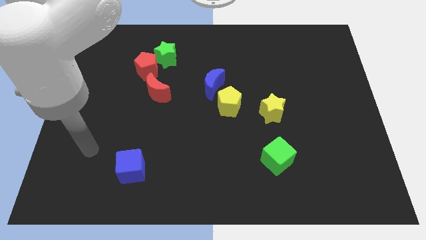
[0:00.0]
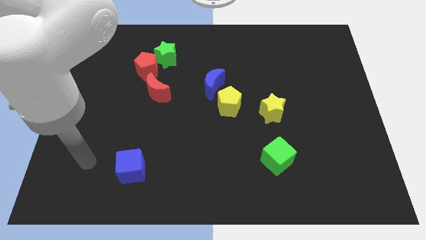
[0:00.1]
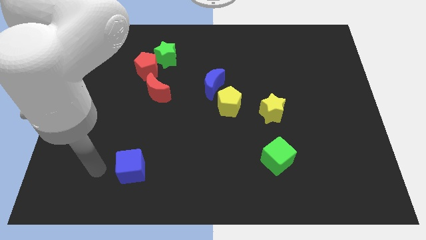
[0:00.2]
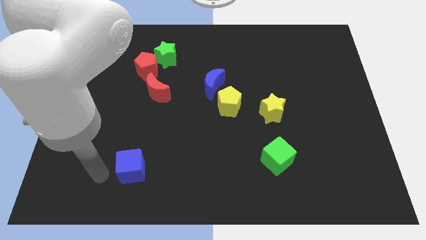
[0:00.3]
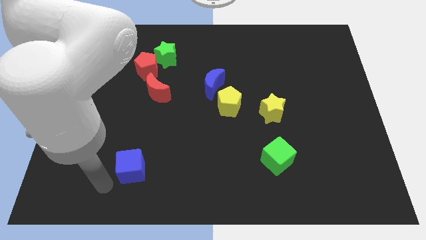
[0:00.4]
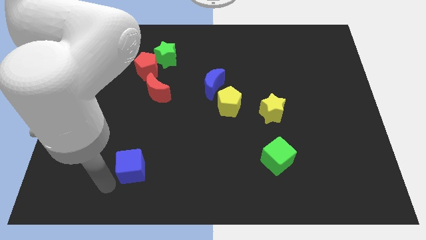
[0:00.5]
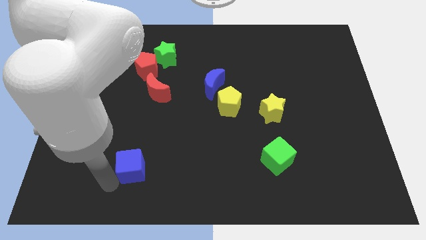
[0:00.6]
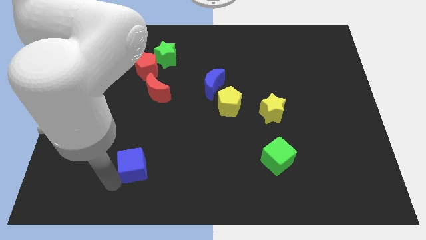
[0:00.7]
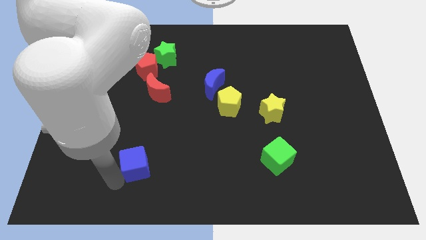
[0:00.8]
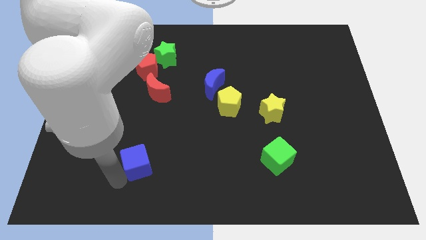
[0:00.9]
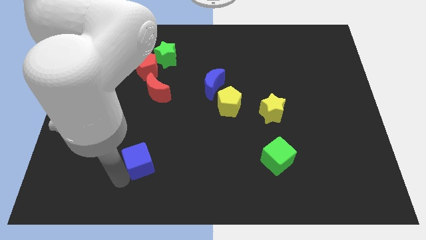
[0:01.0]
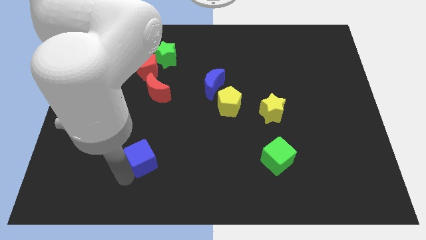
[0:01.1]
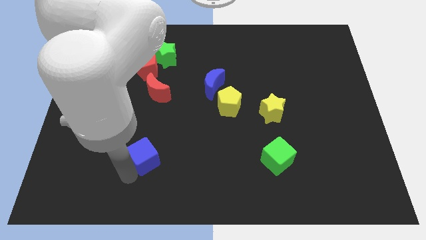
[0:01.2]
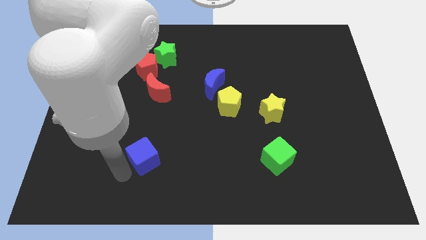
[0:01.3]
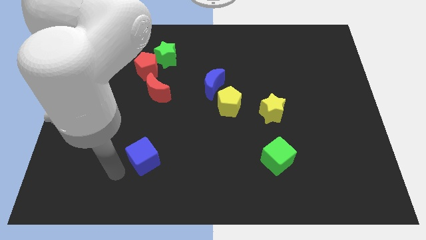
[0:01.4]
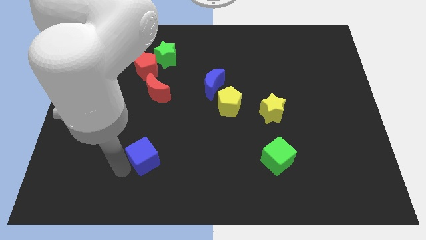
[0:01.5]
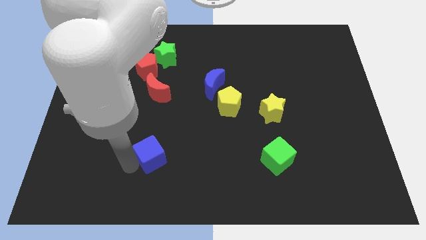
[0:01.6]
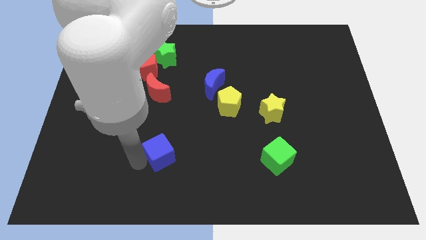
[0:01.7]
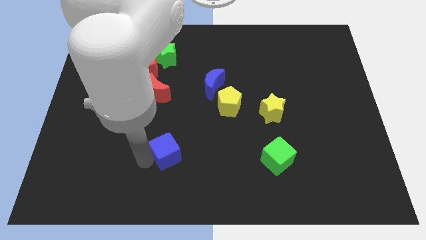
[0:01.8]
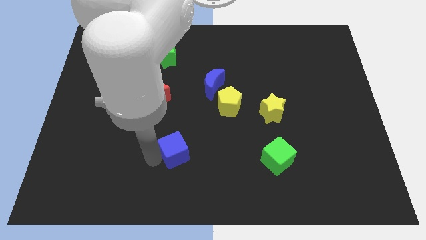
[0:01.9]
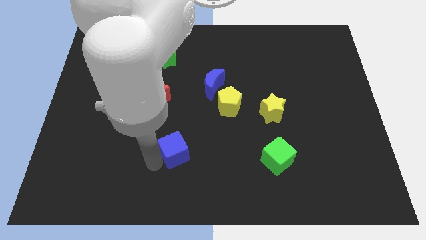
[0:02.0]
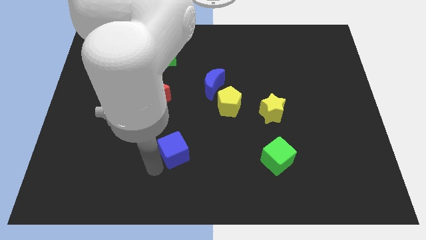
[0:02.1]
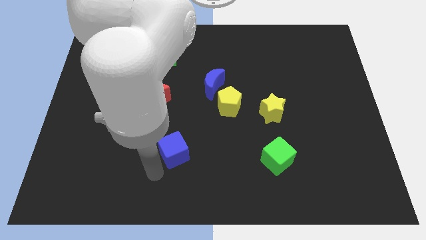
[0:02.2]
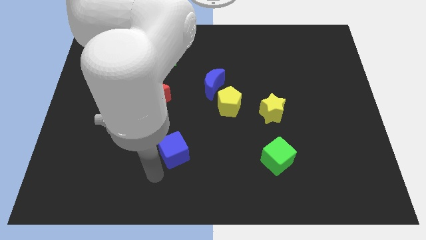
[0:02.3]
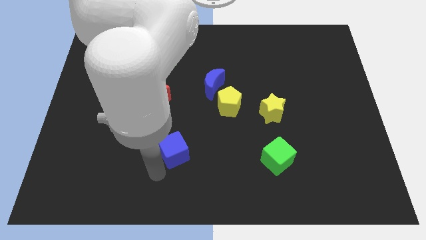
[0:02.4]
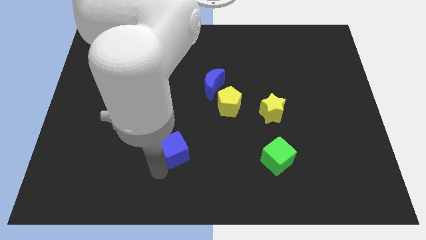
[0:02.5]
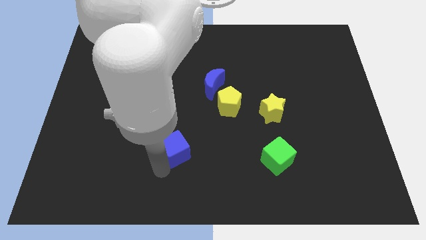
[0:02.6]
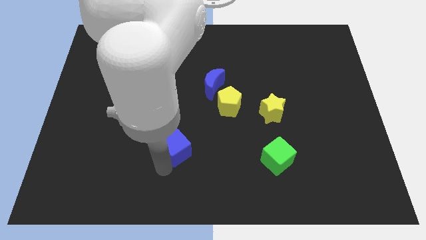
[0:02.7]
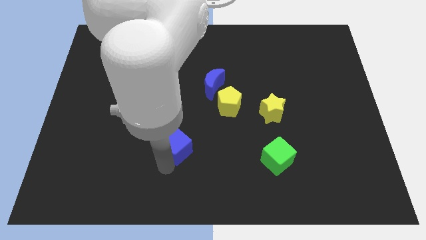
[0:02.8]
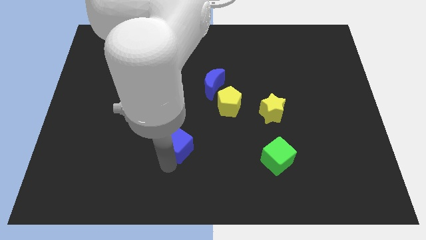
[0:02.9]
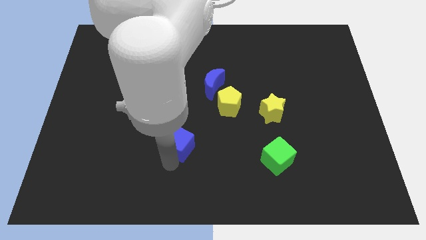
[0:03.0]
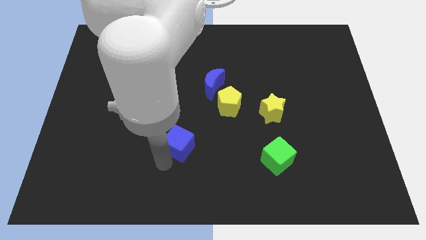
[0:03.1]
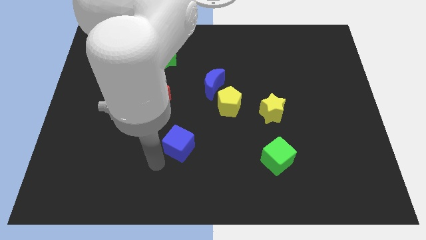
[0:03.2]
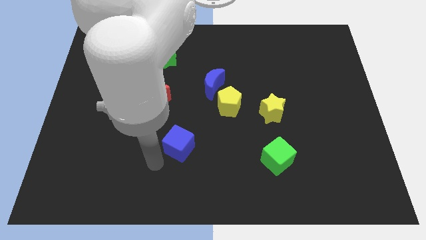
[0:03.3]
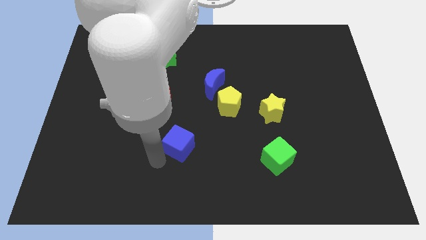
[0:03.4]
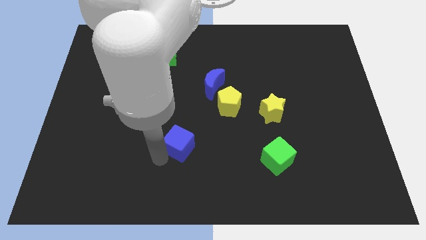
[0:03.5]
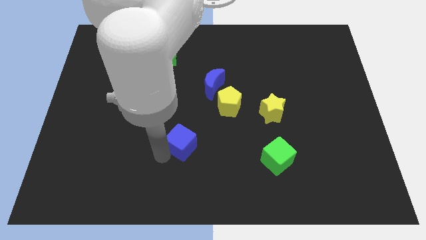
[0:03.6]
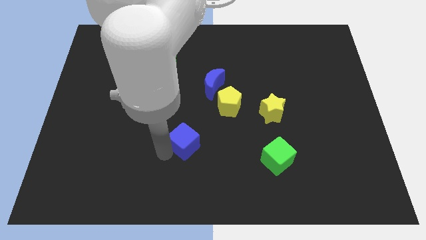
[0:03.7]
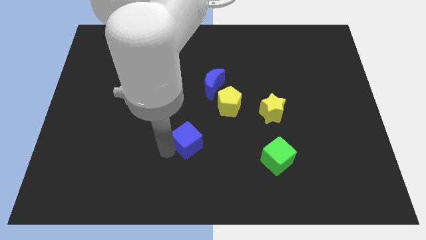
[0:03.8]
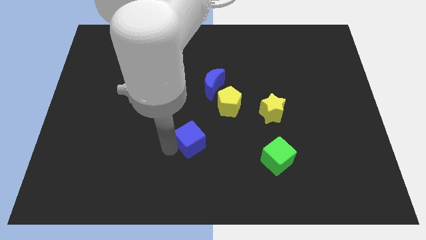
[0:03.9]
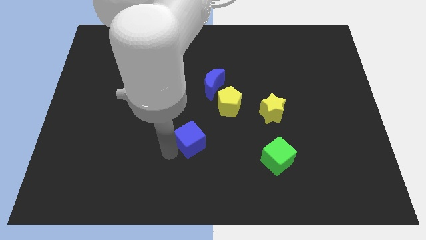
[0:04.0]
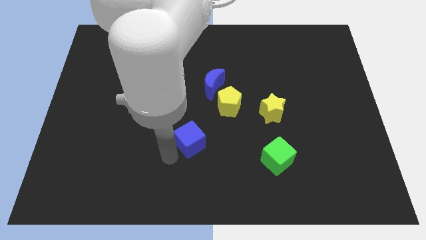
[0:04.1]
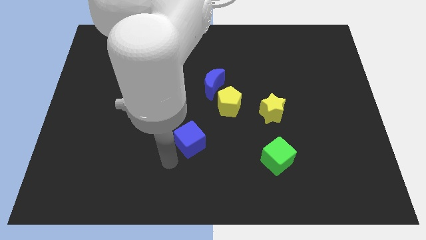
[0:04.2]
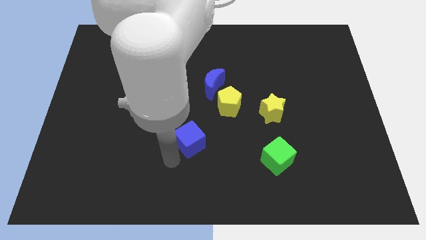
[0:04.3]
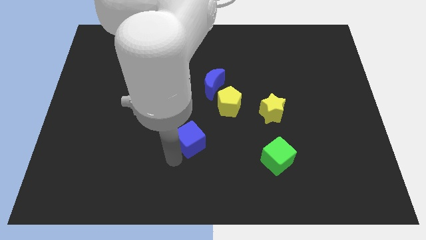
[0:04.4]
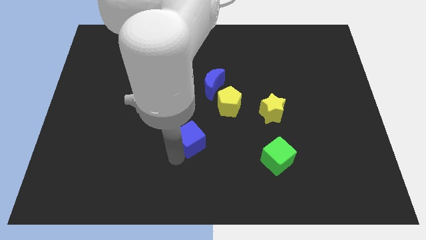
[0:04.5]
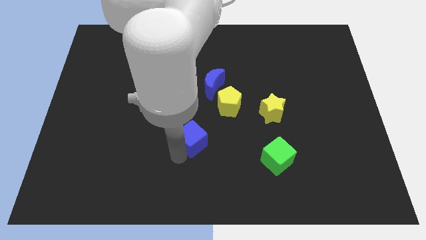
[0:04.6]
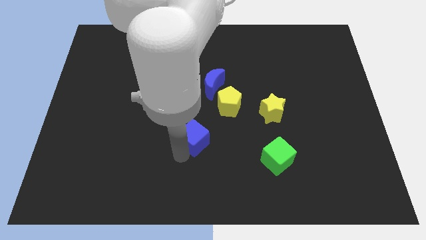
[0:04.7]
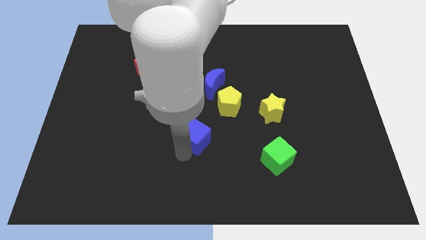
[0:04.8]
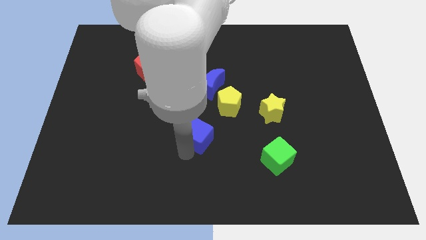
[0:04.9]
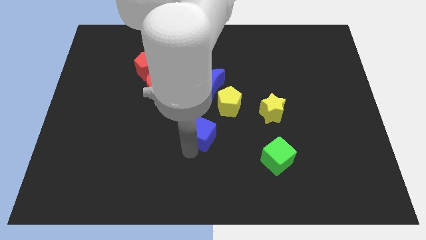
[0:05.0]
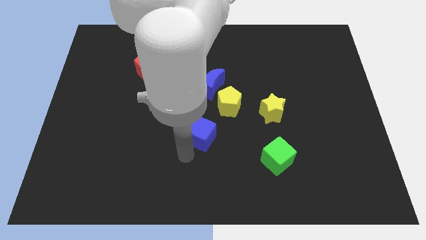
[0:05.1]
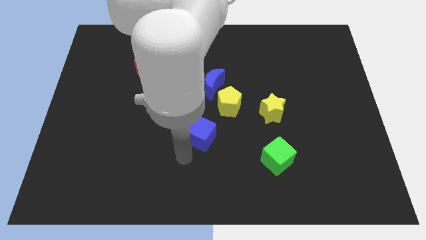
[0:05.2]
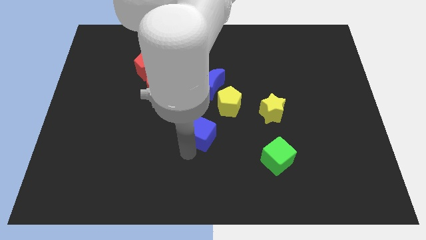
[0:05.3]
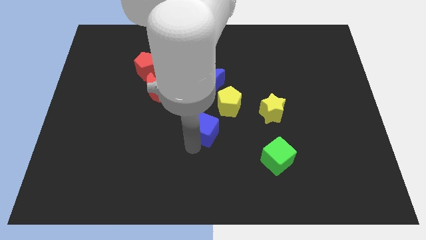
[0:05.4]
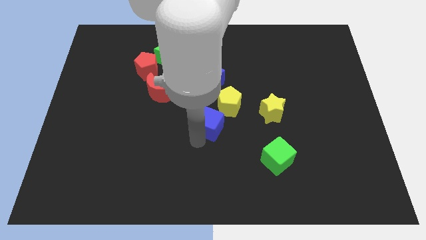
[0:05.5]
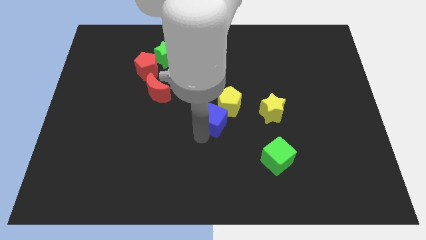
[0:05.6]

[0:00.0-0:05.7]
move the blue cube close to the yellow pentagon

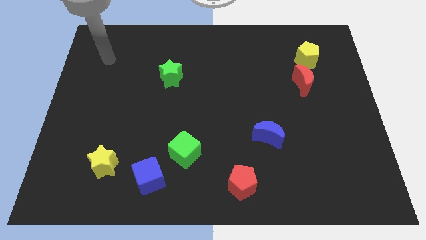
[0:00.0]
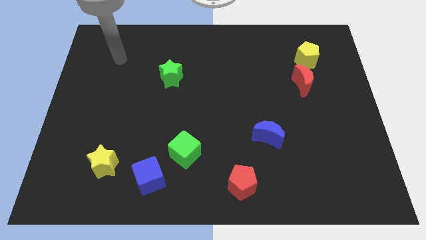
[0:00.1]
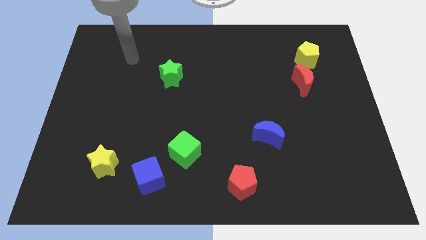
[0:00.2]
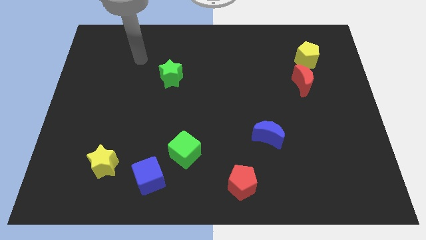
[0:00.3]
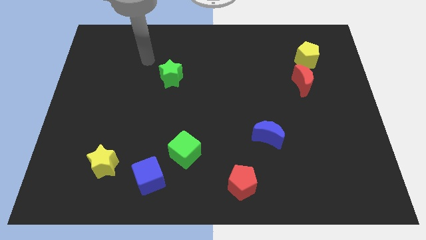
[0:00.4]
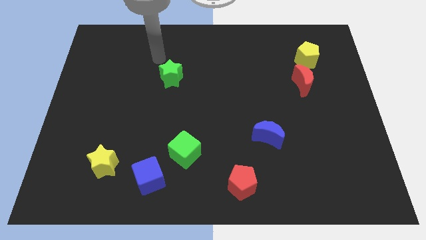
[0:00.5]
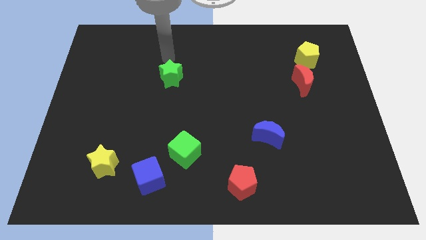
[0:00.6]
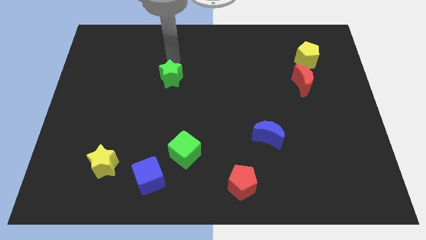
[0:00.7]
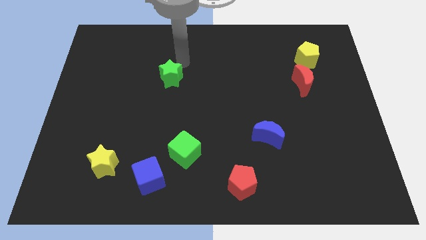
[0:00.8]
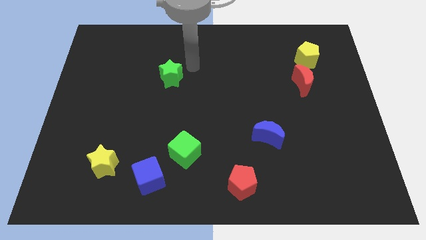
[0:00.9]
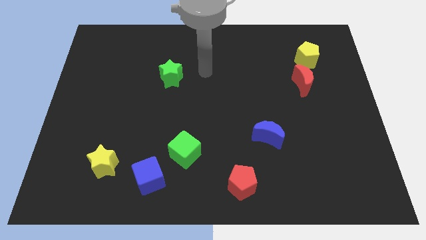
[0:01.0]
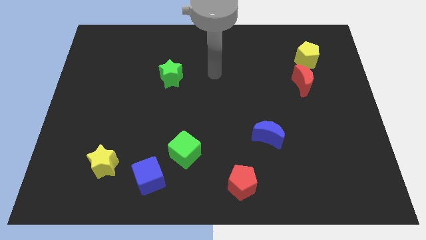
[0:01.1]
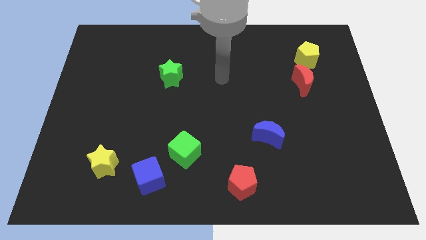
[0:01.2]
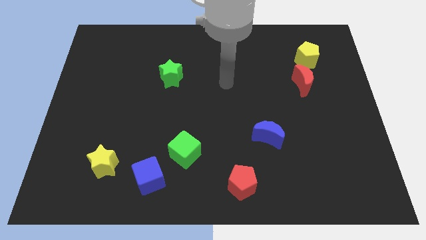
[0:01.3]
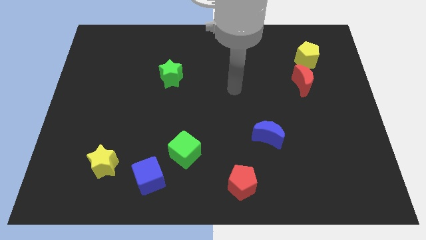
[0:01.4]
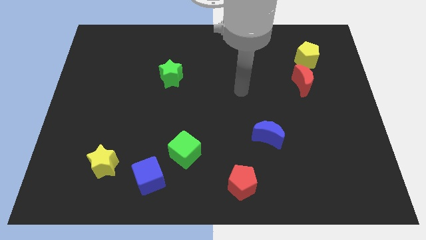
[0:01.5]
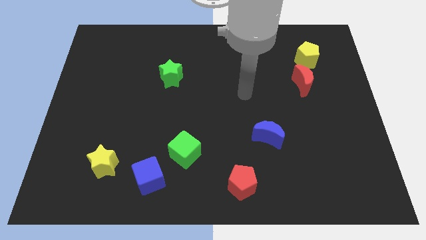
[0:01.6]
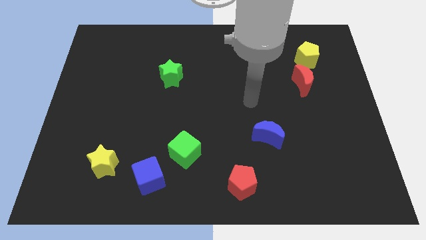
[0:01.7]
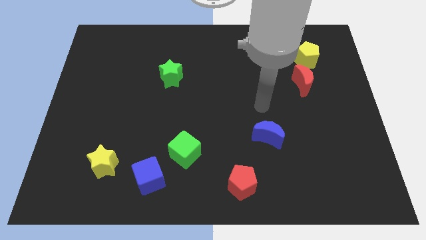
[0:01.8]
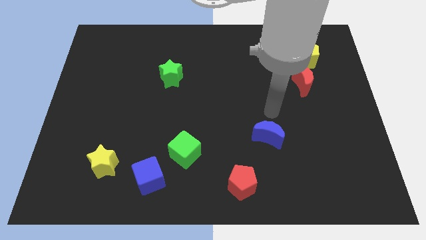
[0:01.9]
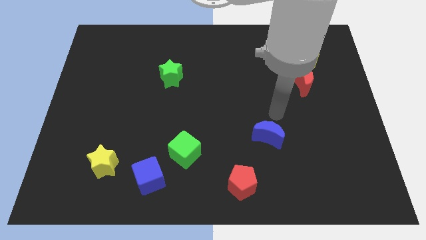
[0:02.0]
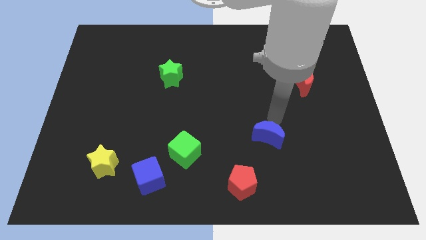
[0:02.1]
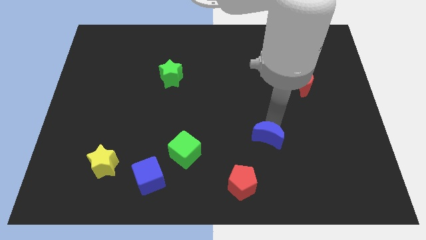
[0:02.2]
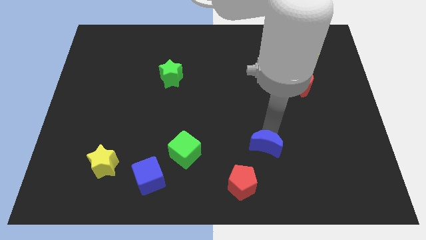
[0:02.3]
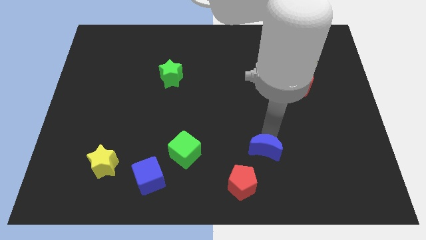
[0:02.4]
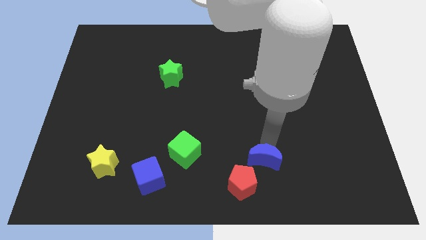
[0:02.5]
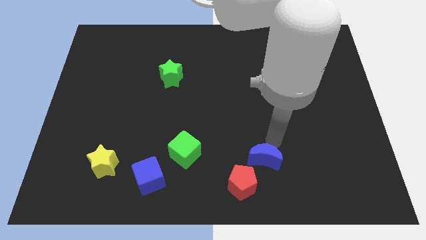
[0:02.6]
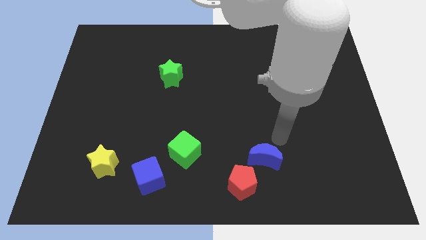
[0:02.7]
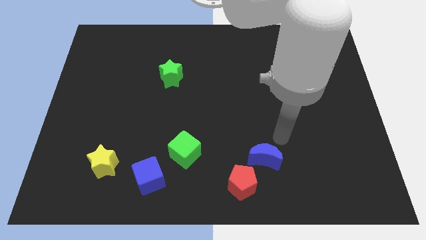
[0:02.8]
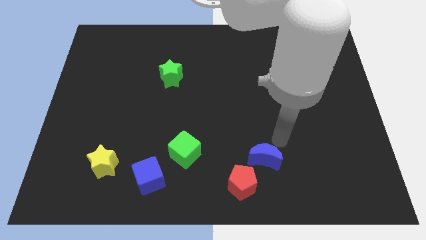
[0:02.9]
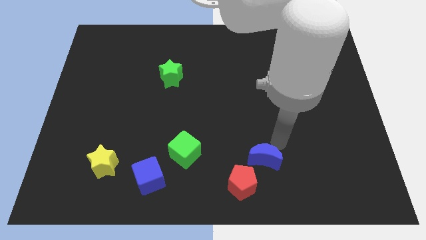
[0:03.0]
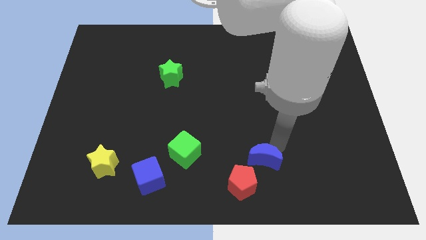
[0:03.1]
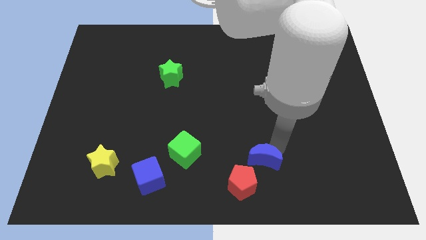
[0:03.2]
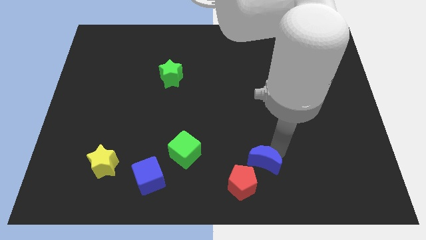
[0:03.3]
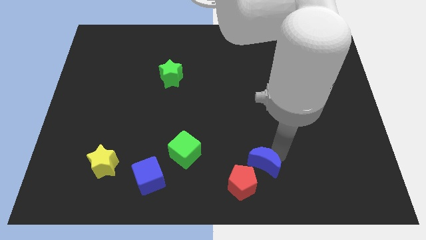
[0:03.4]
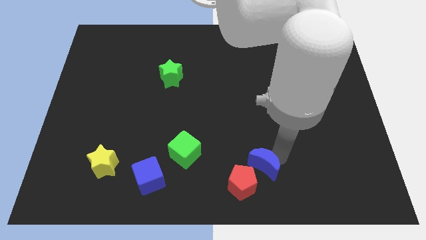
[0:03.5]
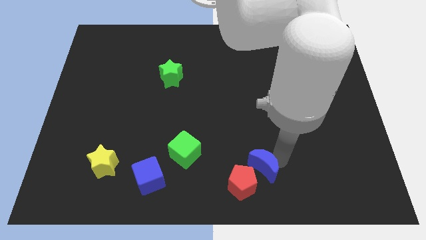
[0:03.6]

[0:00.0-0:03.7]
slide the blue moon towards the red pentagon
